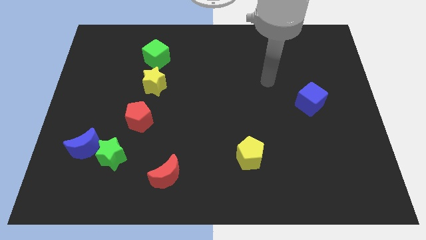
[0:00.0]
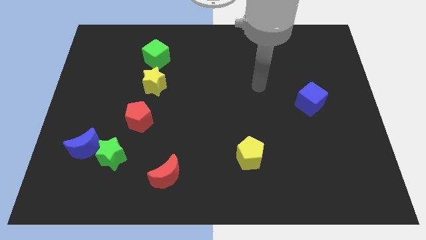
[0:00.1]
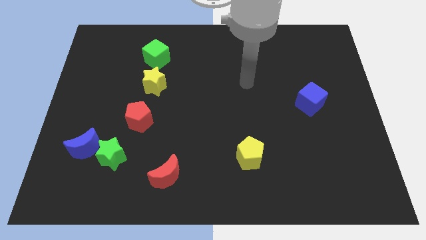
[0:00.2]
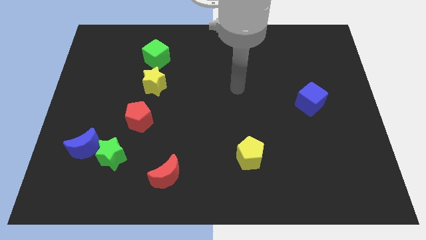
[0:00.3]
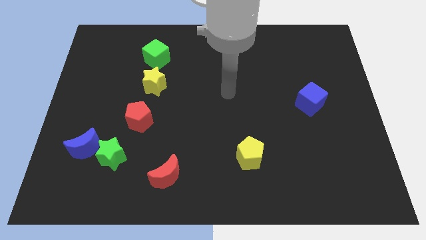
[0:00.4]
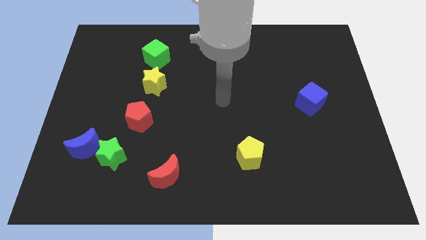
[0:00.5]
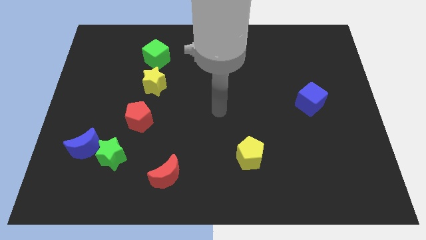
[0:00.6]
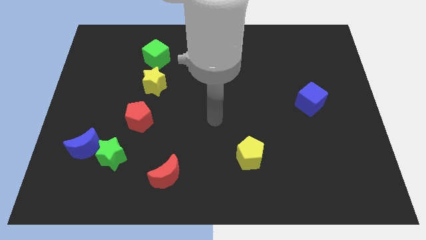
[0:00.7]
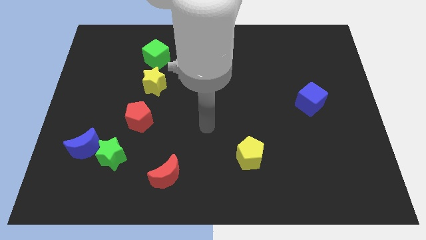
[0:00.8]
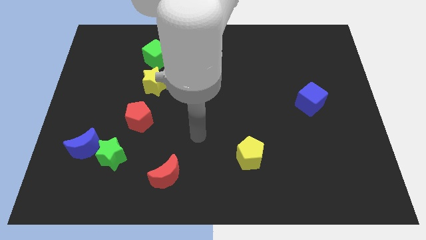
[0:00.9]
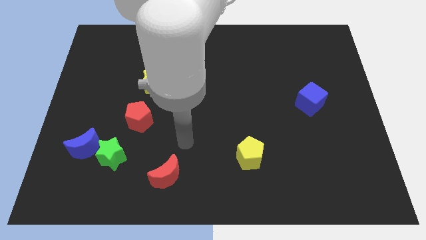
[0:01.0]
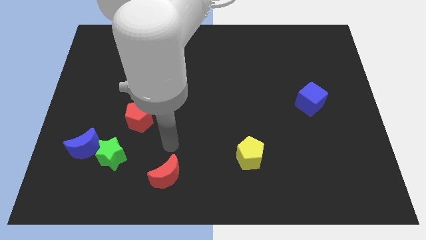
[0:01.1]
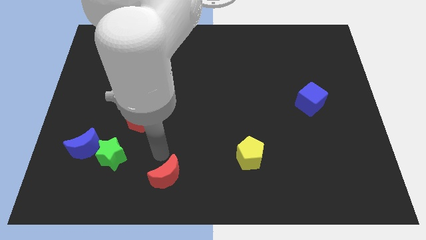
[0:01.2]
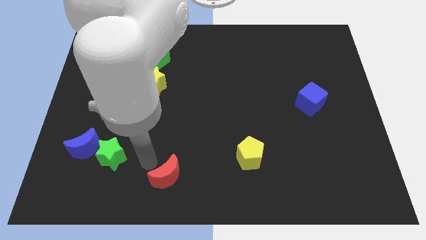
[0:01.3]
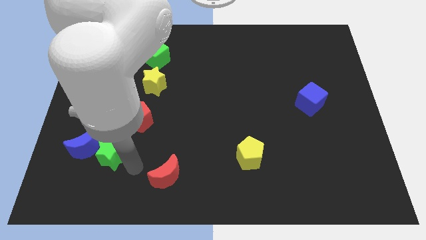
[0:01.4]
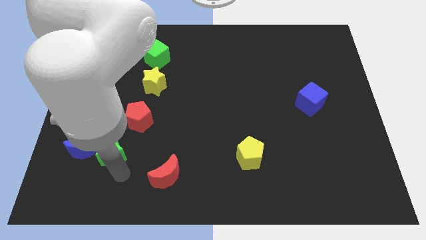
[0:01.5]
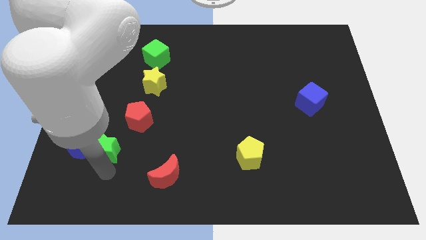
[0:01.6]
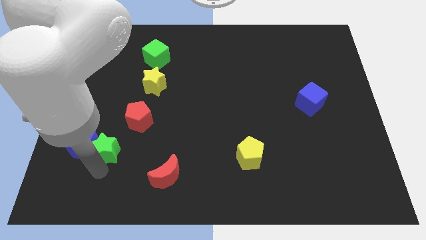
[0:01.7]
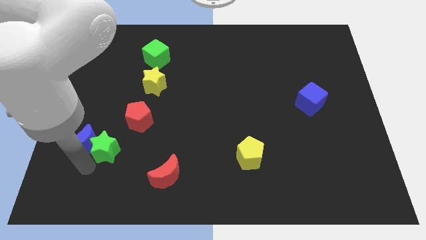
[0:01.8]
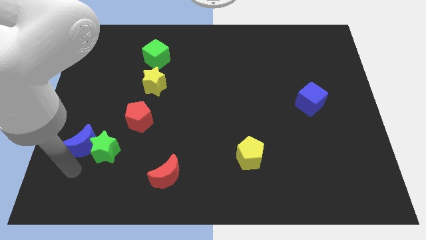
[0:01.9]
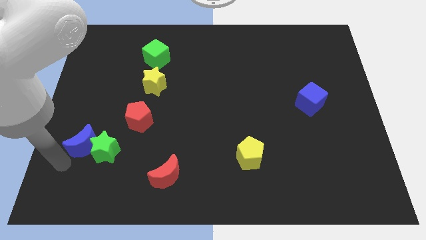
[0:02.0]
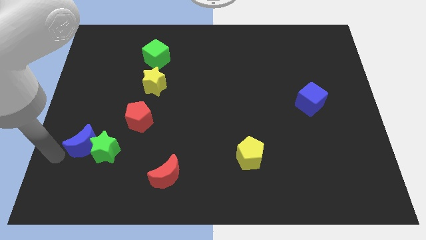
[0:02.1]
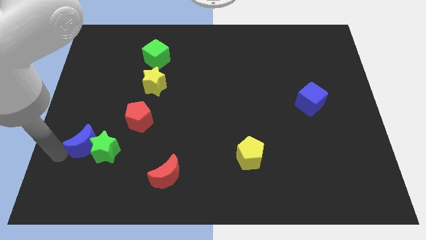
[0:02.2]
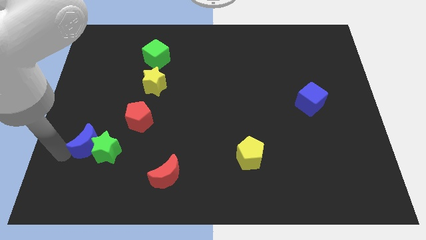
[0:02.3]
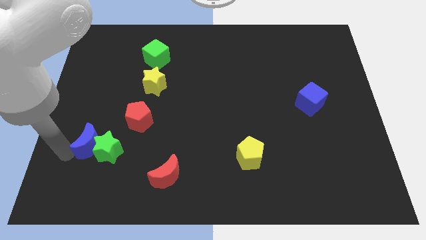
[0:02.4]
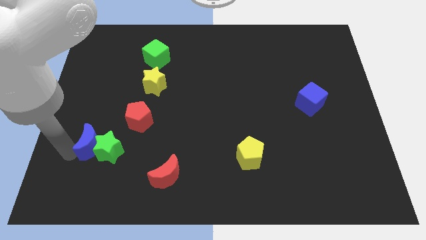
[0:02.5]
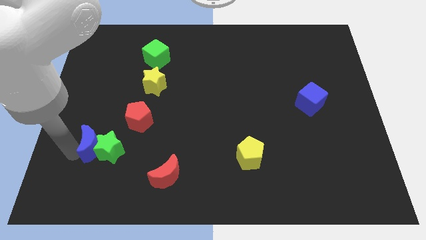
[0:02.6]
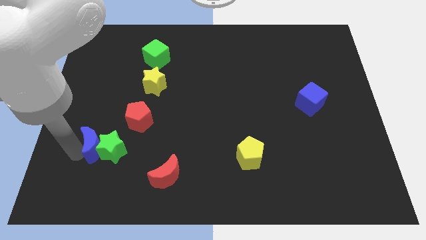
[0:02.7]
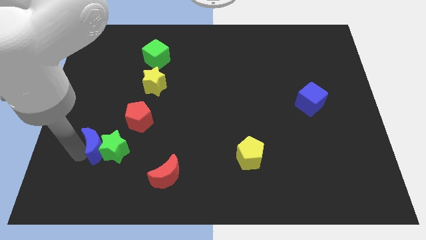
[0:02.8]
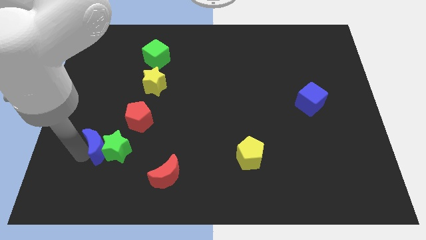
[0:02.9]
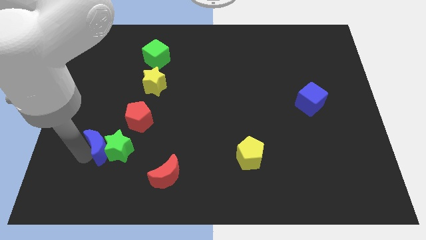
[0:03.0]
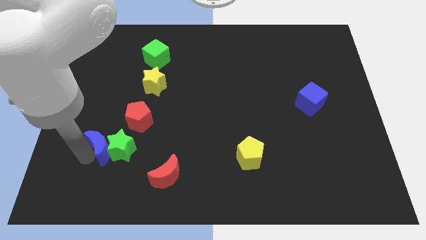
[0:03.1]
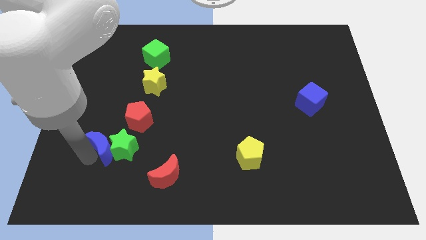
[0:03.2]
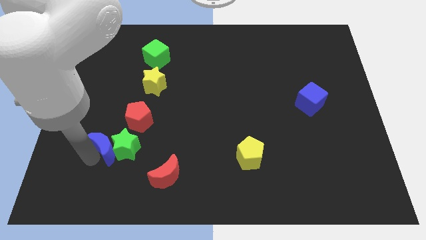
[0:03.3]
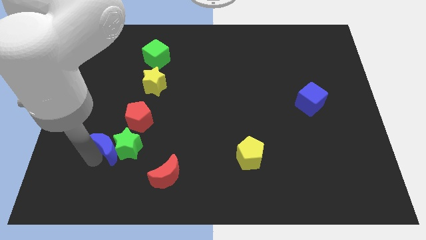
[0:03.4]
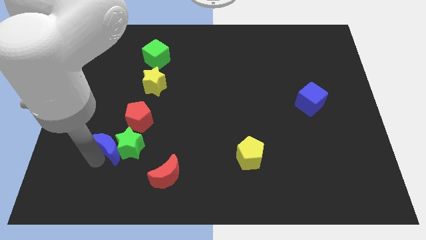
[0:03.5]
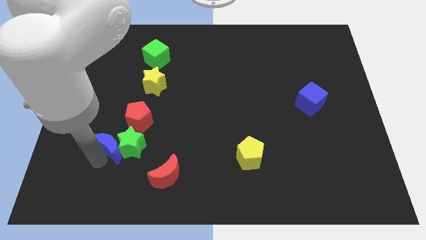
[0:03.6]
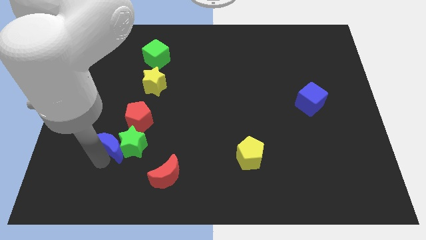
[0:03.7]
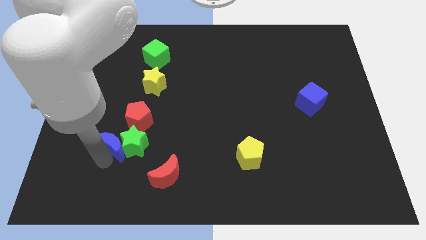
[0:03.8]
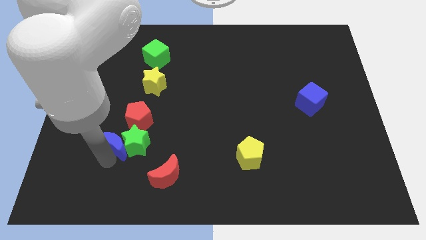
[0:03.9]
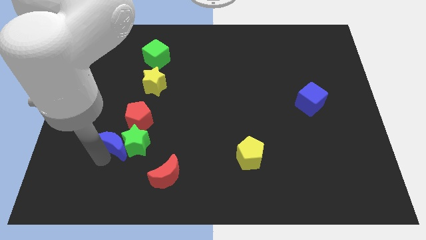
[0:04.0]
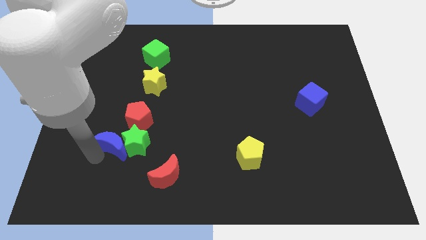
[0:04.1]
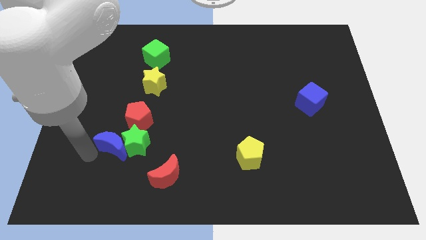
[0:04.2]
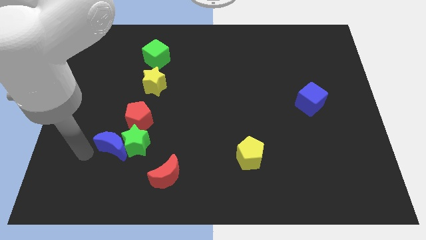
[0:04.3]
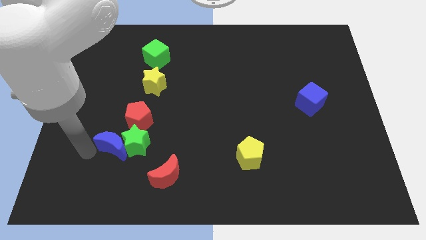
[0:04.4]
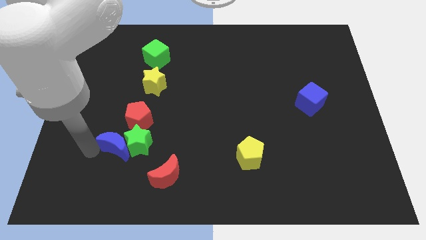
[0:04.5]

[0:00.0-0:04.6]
slightly slide the blue moon right

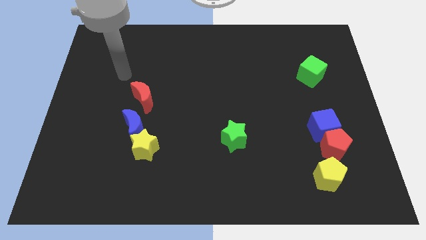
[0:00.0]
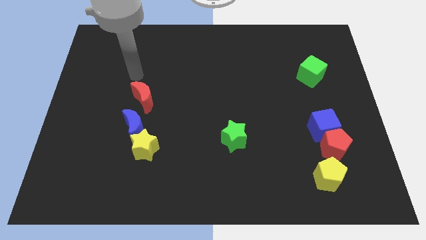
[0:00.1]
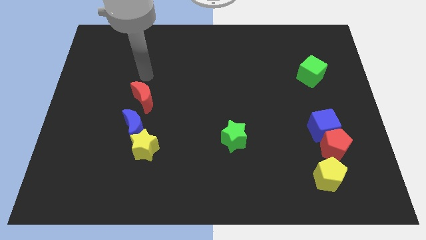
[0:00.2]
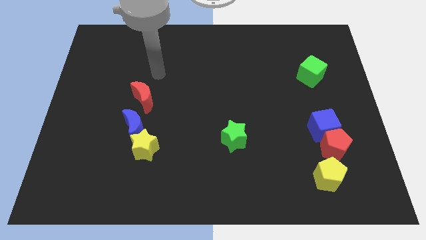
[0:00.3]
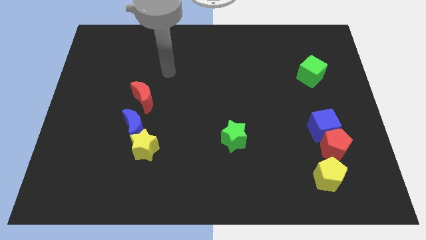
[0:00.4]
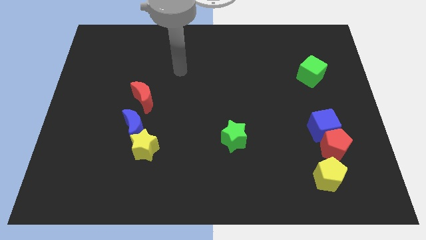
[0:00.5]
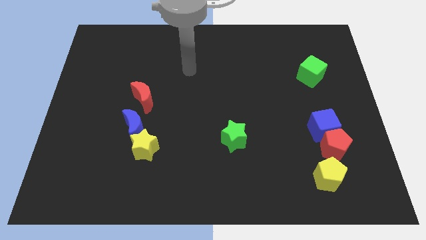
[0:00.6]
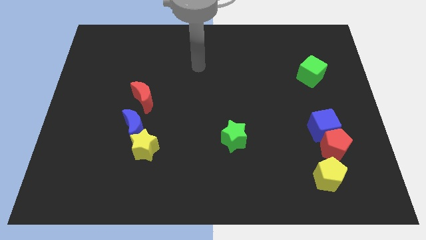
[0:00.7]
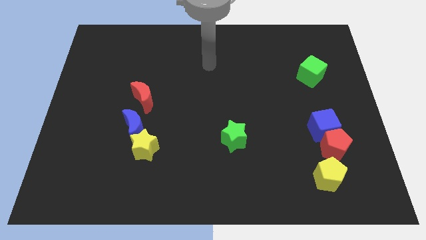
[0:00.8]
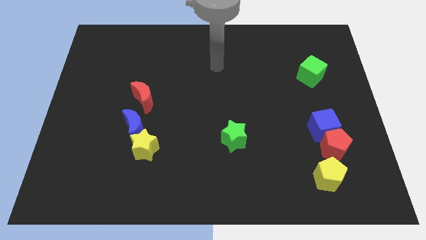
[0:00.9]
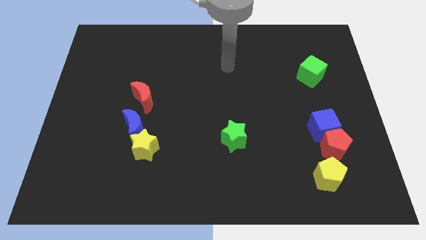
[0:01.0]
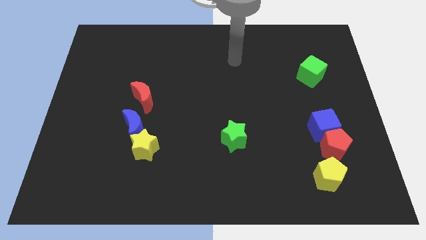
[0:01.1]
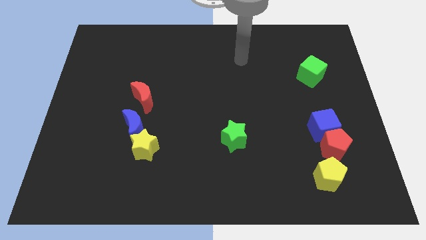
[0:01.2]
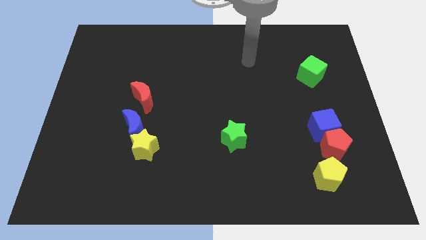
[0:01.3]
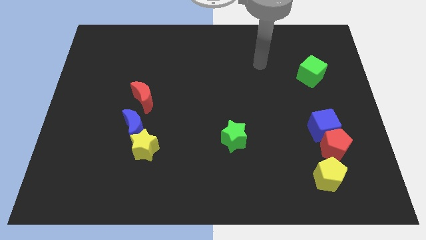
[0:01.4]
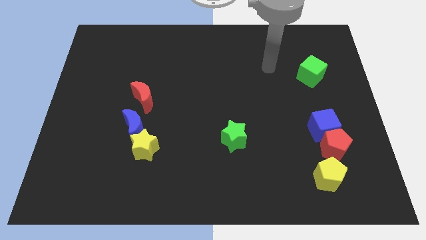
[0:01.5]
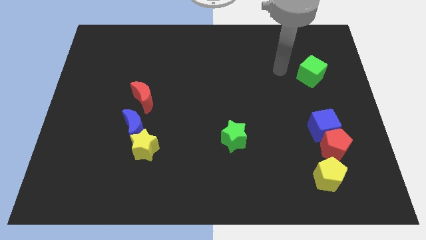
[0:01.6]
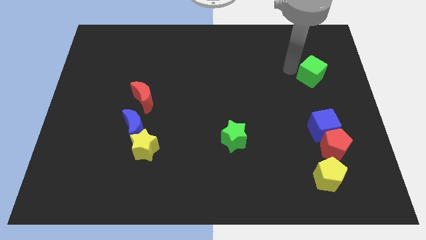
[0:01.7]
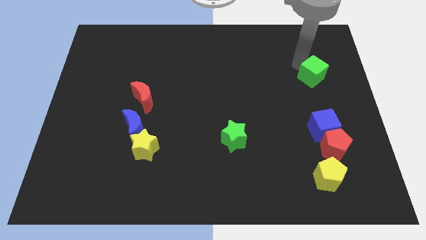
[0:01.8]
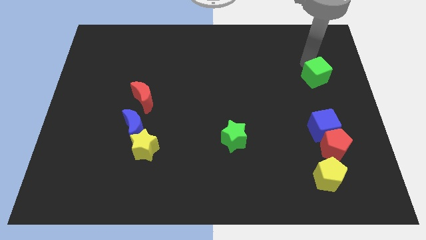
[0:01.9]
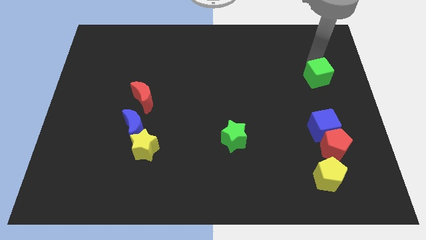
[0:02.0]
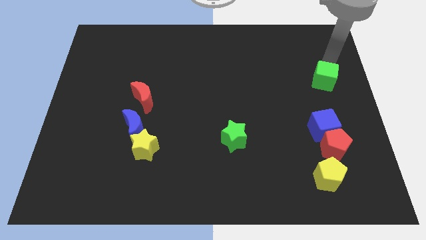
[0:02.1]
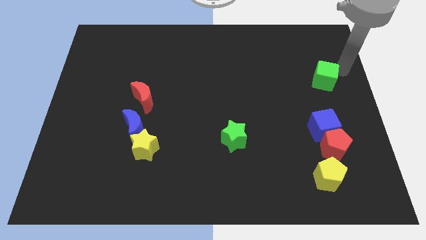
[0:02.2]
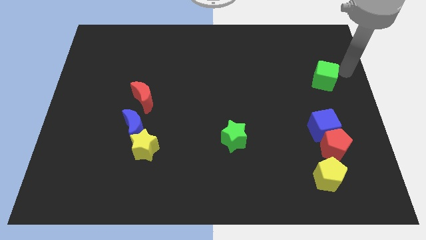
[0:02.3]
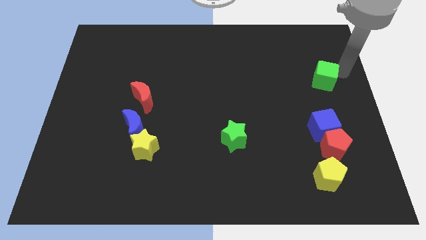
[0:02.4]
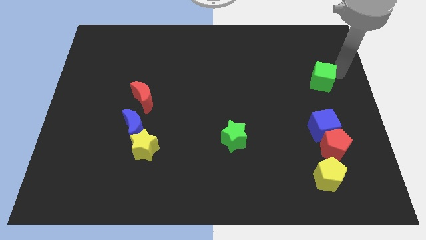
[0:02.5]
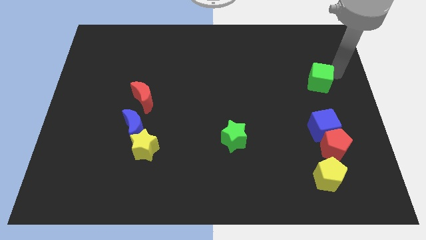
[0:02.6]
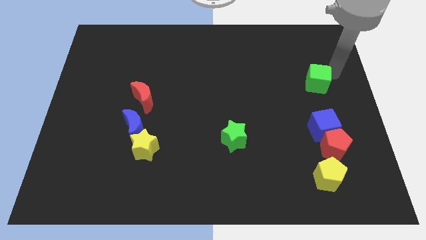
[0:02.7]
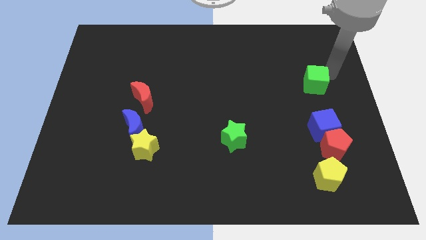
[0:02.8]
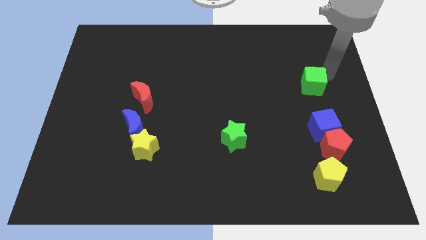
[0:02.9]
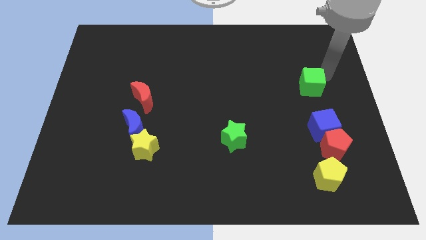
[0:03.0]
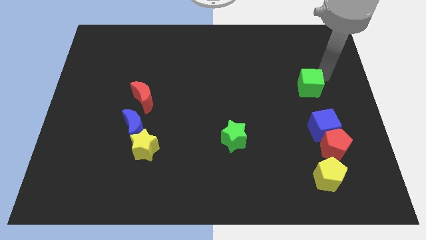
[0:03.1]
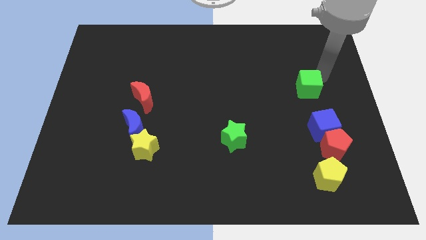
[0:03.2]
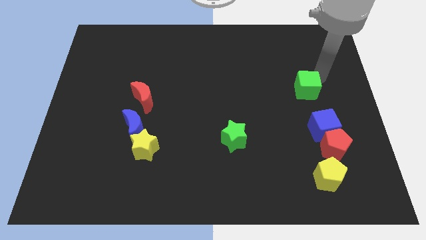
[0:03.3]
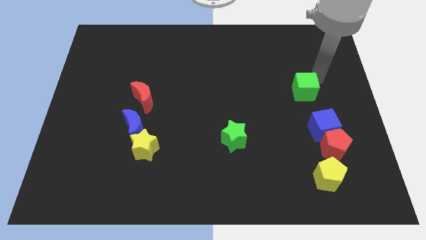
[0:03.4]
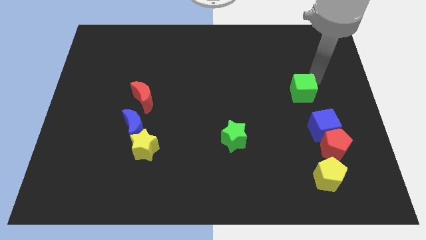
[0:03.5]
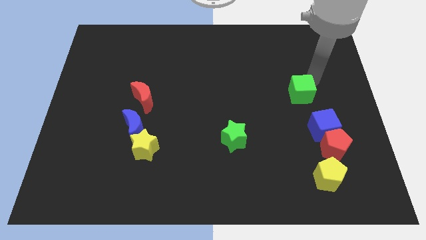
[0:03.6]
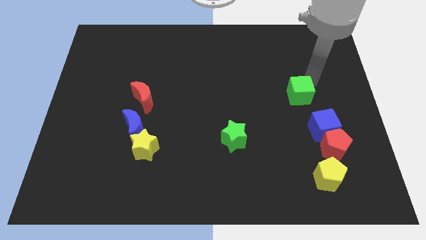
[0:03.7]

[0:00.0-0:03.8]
push the green cube diagonally downwards and to the left slightly
